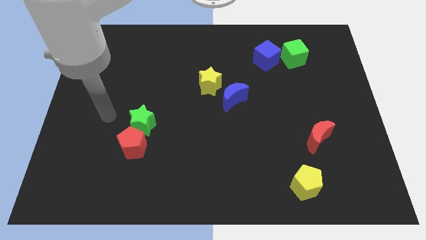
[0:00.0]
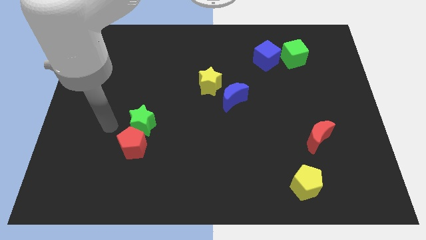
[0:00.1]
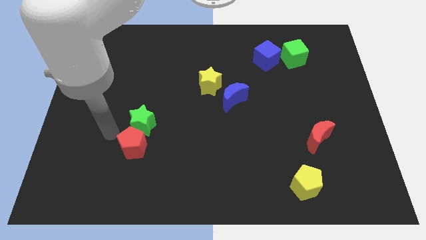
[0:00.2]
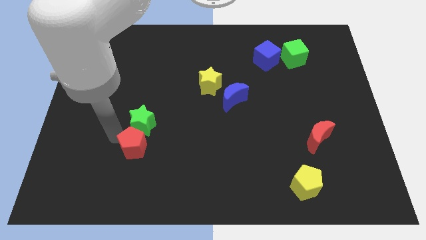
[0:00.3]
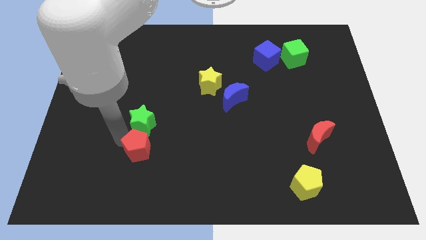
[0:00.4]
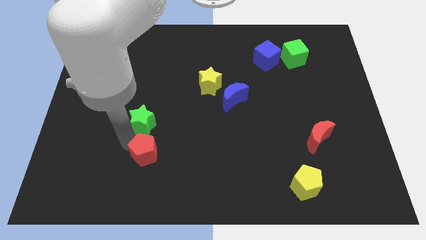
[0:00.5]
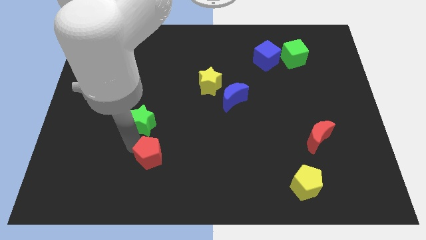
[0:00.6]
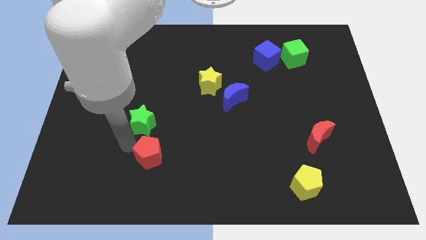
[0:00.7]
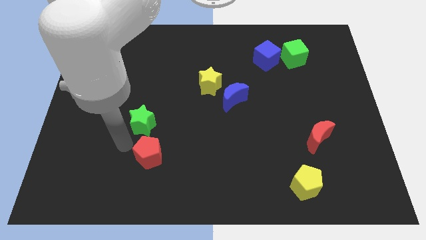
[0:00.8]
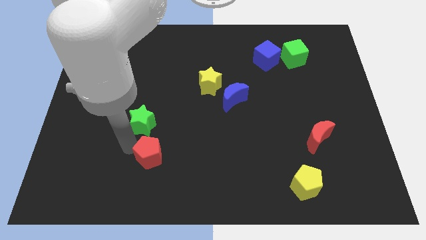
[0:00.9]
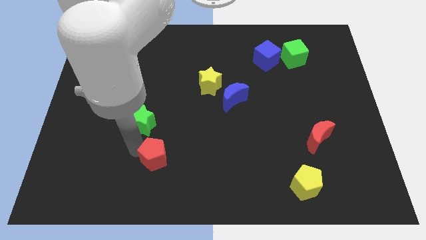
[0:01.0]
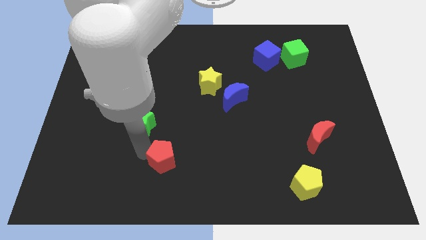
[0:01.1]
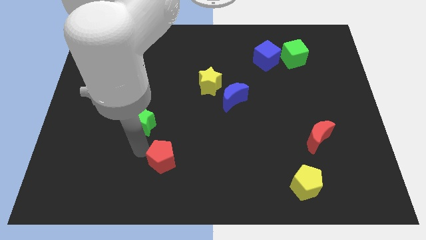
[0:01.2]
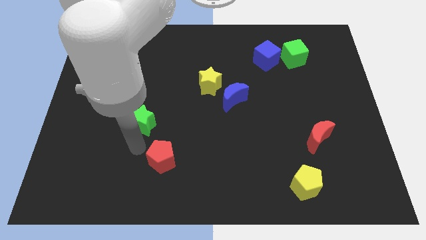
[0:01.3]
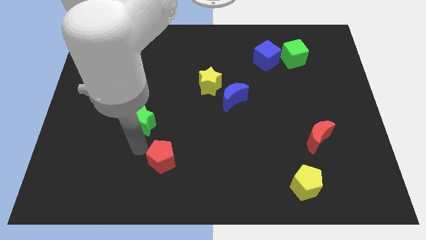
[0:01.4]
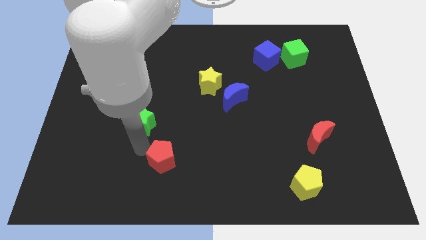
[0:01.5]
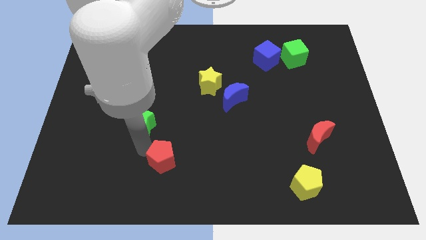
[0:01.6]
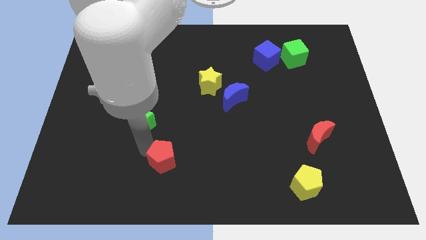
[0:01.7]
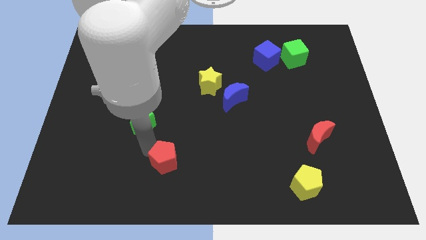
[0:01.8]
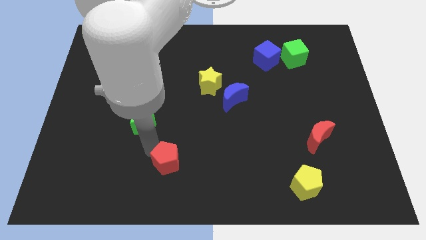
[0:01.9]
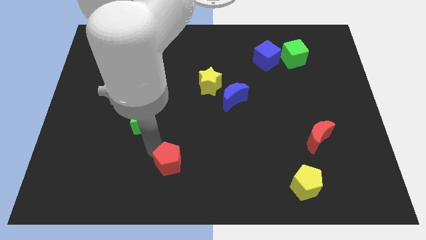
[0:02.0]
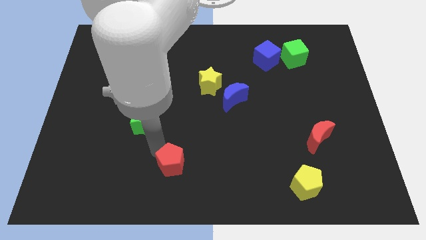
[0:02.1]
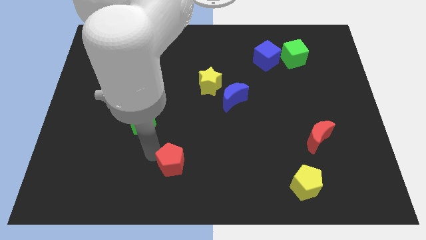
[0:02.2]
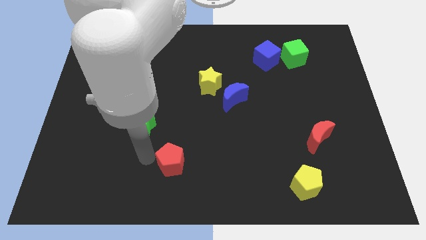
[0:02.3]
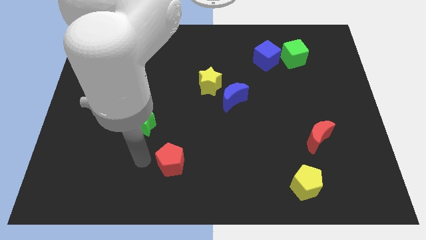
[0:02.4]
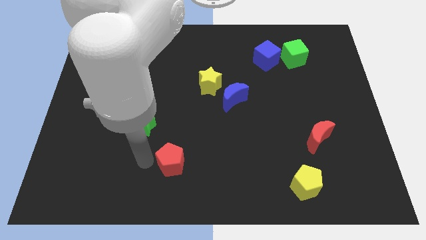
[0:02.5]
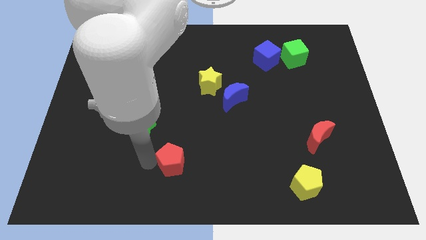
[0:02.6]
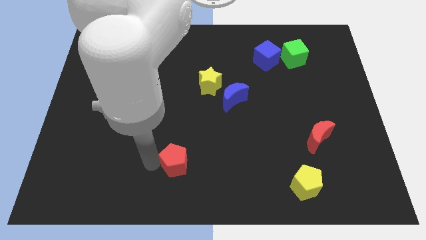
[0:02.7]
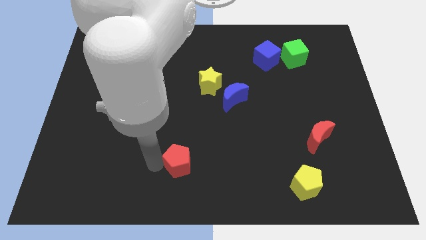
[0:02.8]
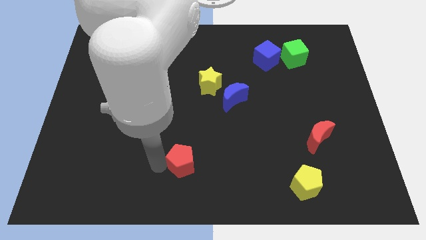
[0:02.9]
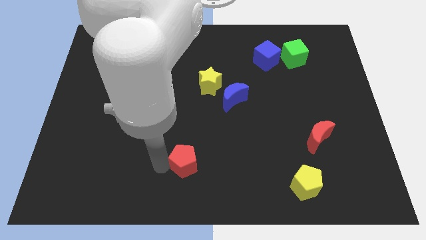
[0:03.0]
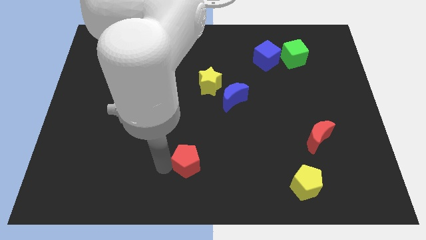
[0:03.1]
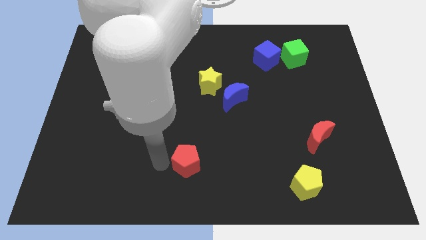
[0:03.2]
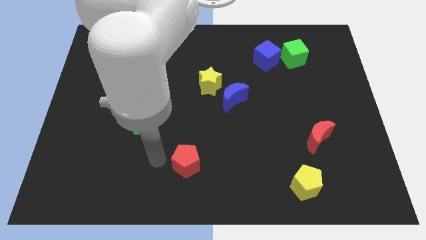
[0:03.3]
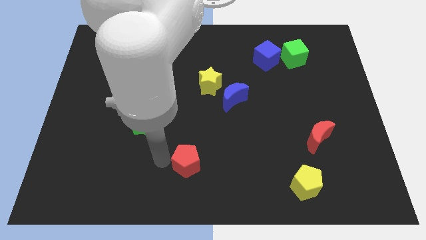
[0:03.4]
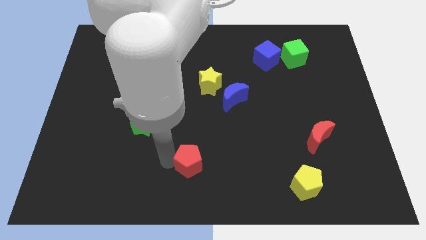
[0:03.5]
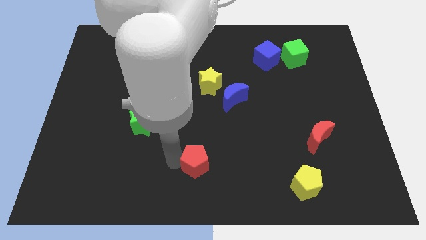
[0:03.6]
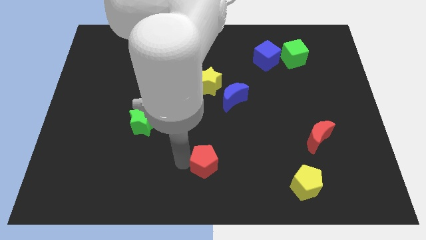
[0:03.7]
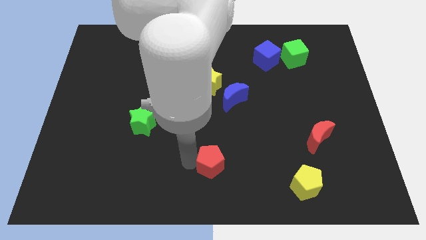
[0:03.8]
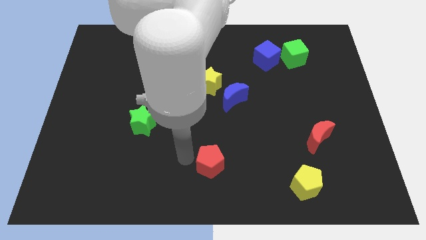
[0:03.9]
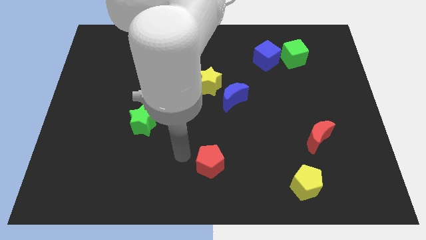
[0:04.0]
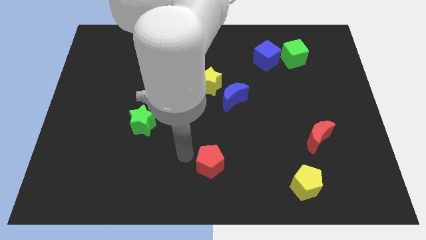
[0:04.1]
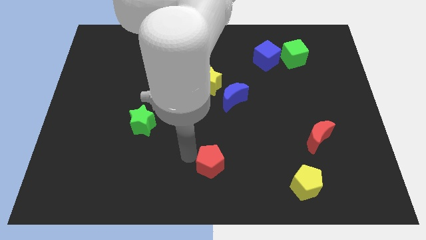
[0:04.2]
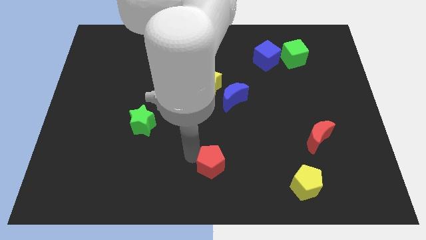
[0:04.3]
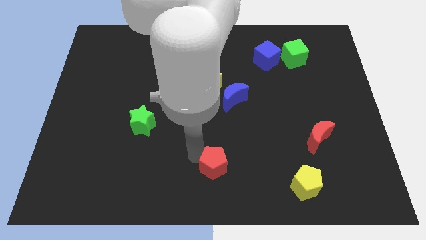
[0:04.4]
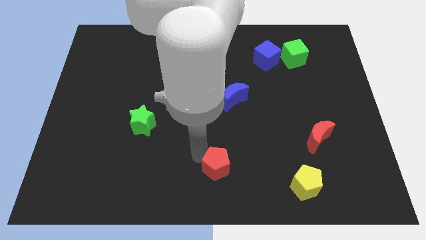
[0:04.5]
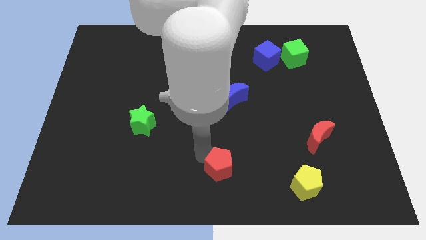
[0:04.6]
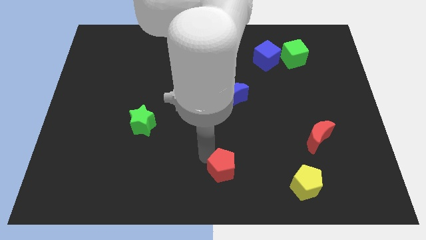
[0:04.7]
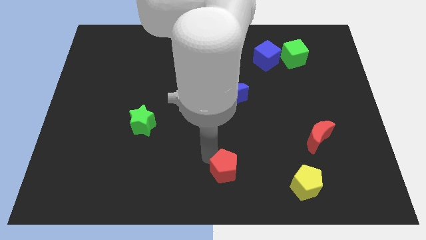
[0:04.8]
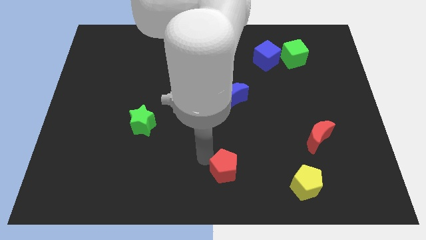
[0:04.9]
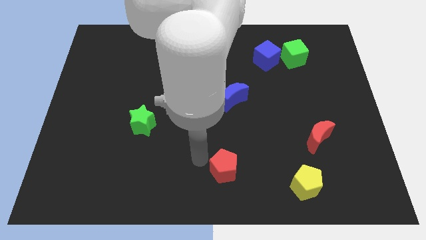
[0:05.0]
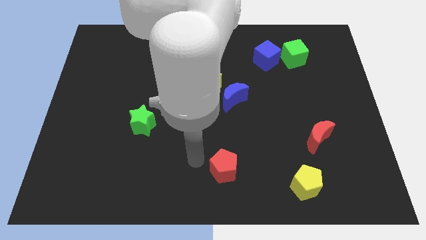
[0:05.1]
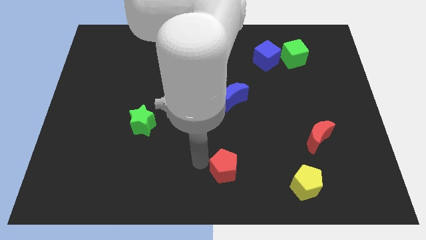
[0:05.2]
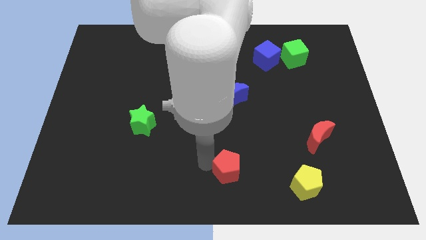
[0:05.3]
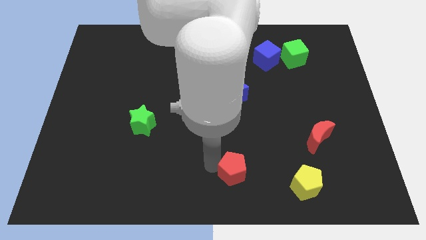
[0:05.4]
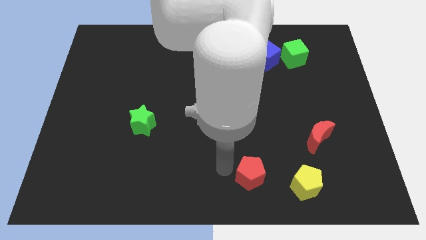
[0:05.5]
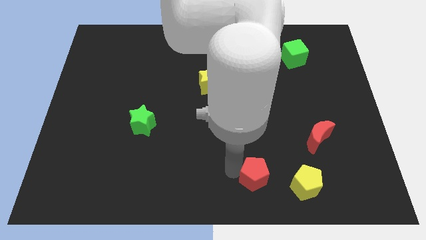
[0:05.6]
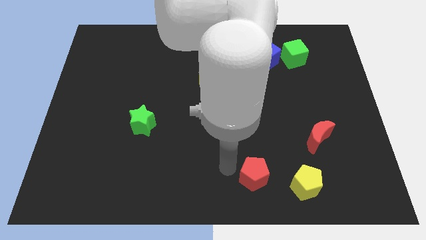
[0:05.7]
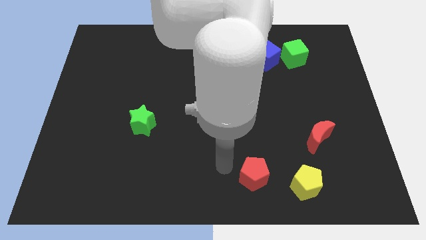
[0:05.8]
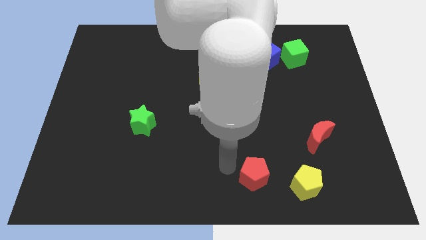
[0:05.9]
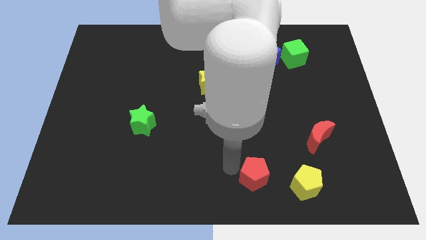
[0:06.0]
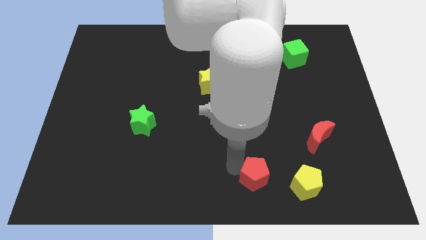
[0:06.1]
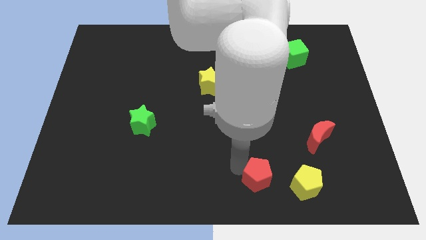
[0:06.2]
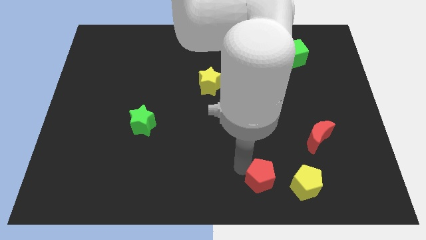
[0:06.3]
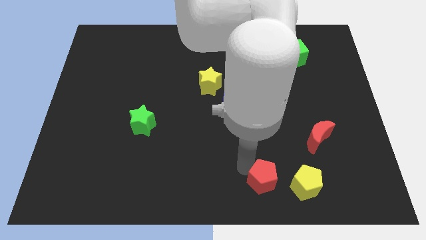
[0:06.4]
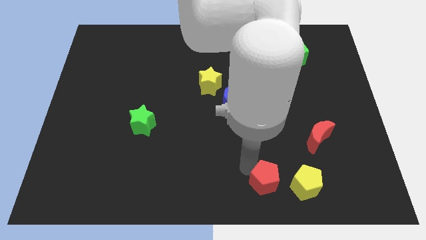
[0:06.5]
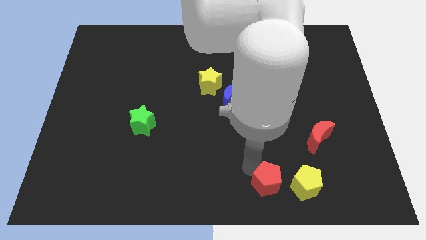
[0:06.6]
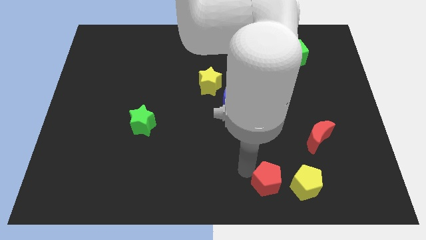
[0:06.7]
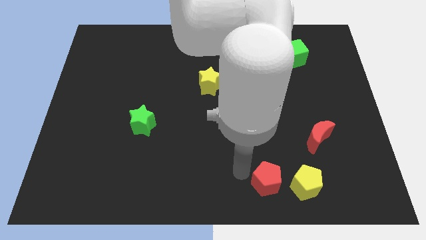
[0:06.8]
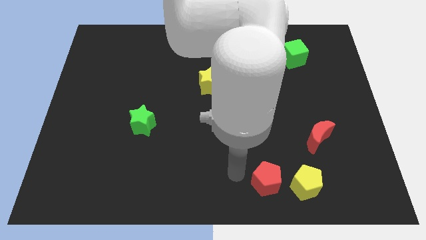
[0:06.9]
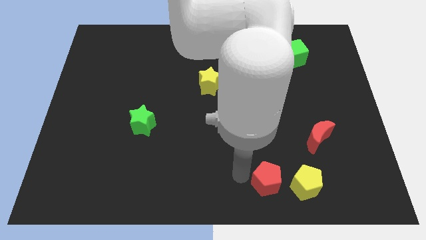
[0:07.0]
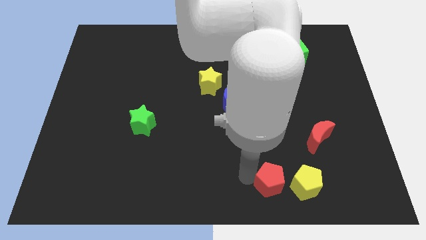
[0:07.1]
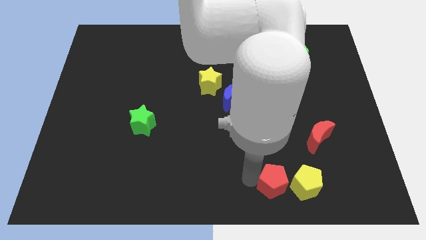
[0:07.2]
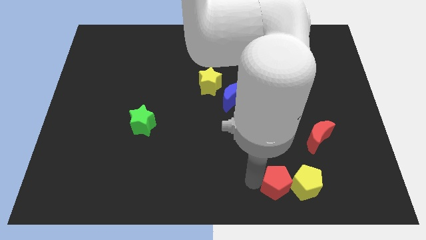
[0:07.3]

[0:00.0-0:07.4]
slide the red pentagon to the yellow pentagon
